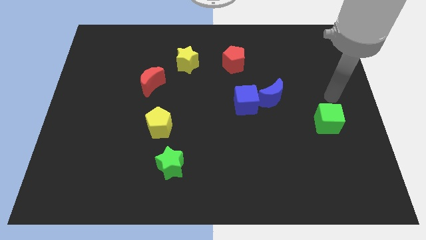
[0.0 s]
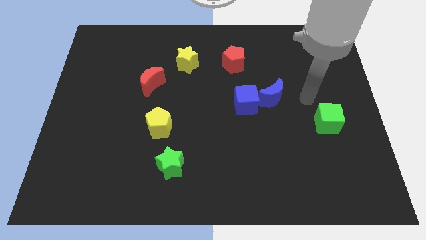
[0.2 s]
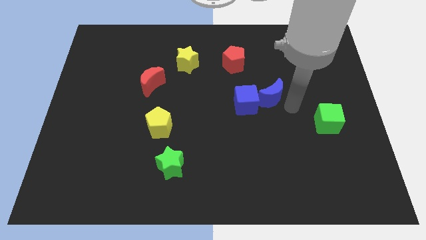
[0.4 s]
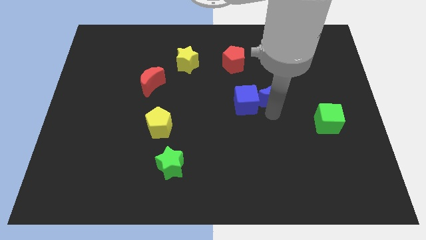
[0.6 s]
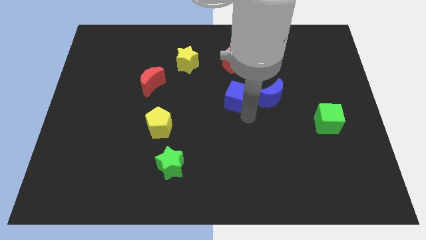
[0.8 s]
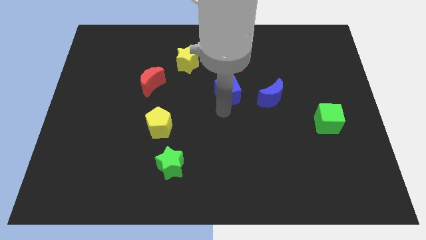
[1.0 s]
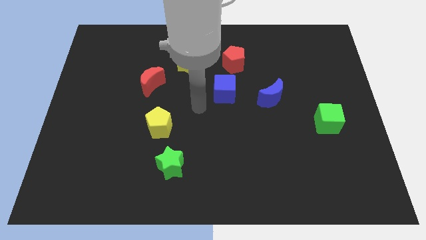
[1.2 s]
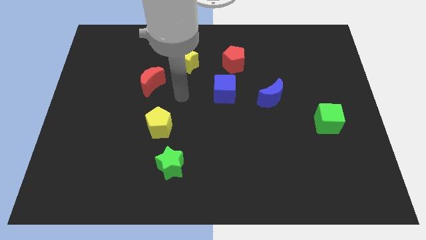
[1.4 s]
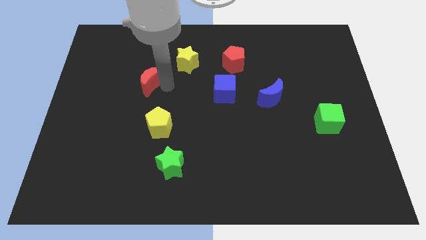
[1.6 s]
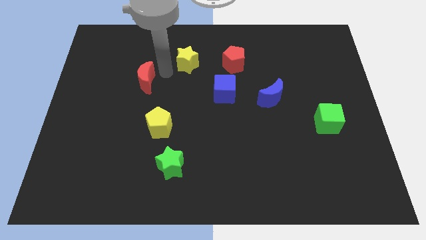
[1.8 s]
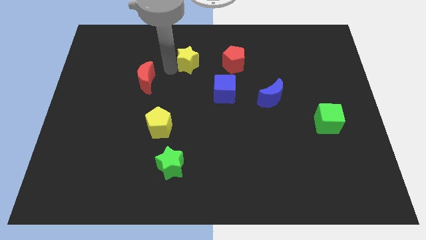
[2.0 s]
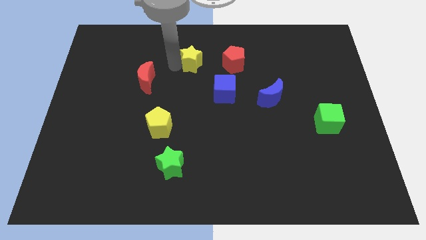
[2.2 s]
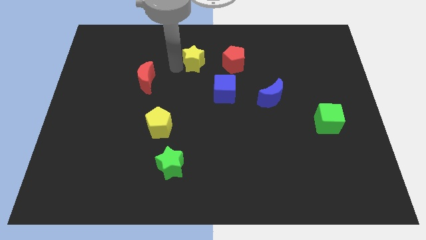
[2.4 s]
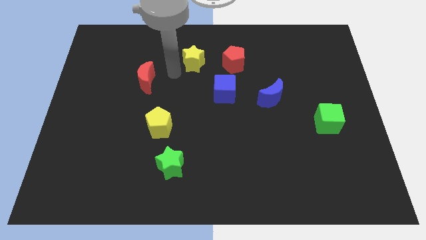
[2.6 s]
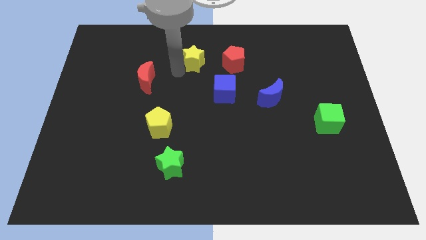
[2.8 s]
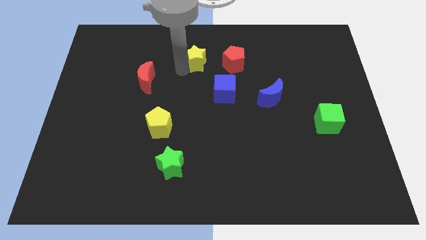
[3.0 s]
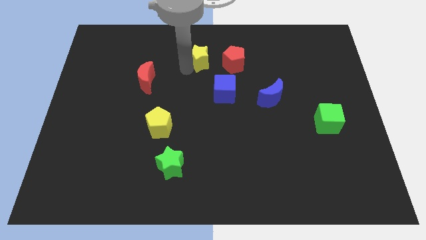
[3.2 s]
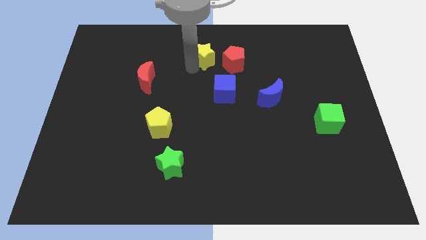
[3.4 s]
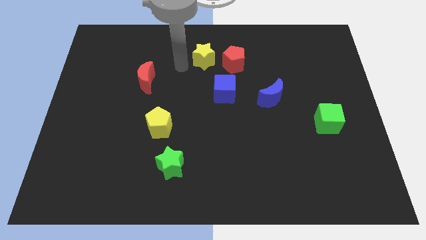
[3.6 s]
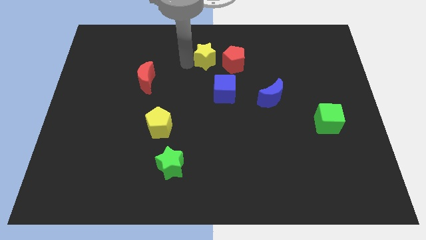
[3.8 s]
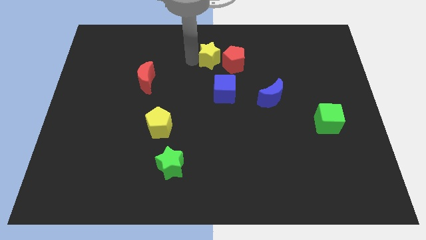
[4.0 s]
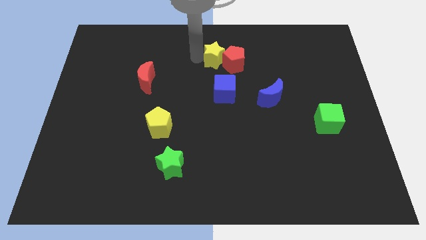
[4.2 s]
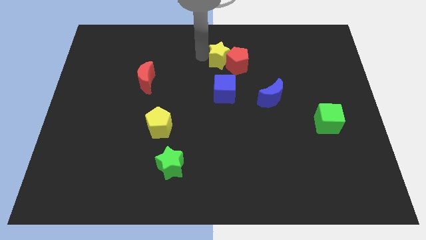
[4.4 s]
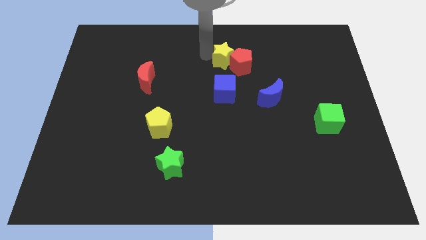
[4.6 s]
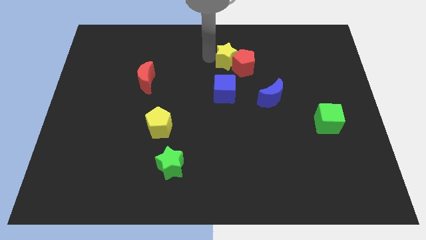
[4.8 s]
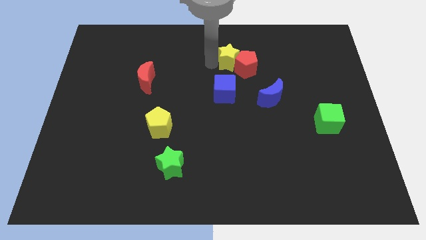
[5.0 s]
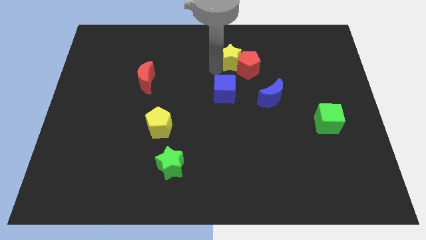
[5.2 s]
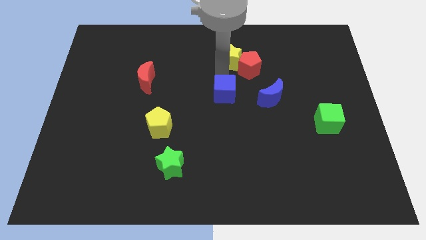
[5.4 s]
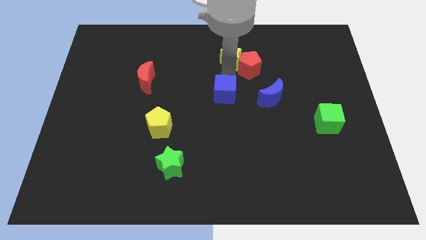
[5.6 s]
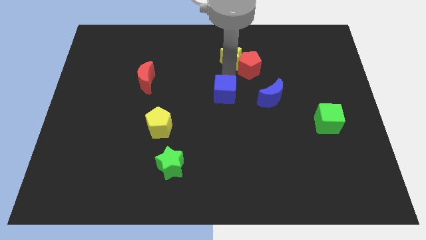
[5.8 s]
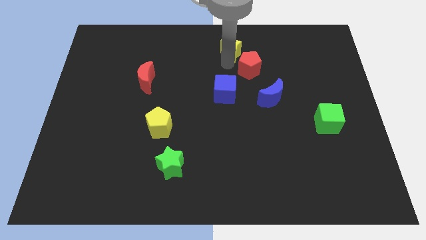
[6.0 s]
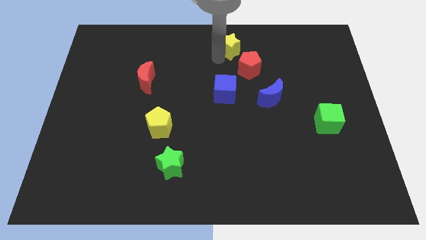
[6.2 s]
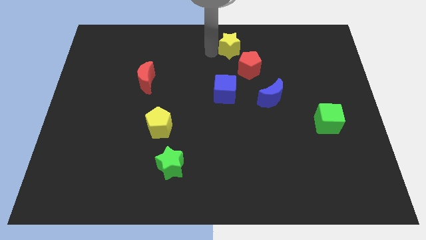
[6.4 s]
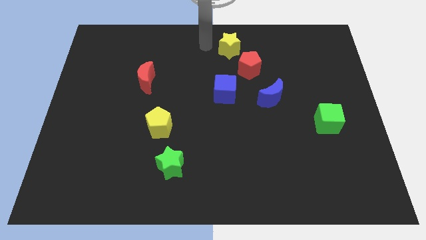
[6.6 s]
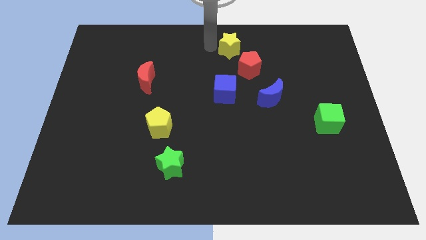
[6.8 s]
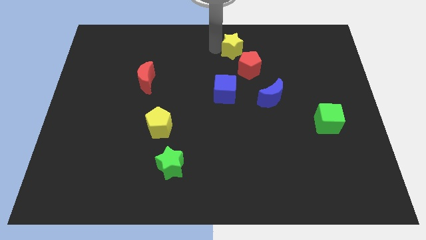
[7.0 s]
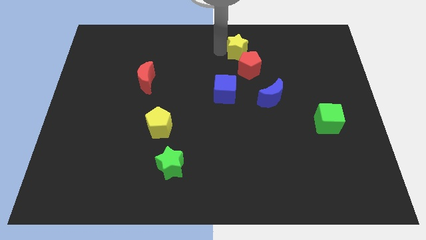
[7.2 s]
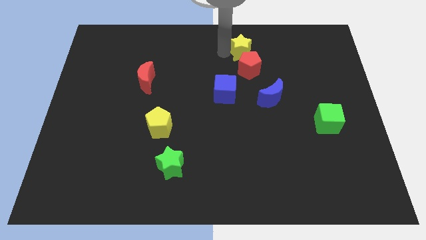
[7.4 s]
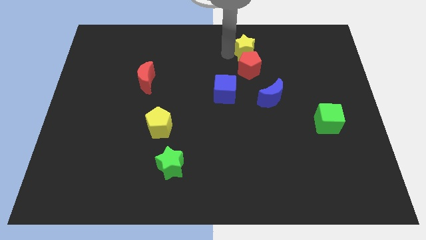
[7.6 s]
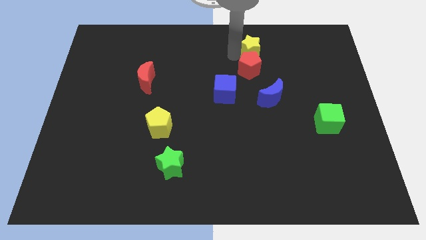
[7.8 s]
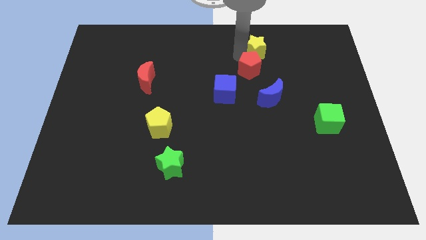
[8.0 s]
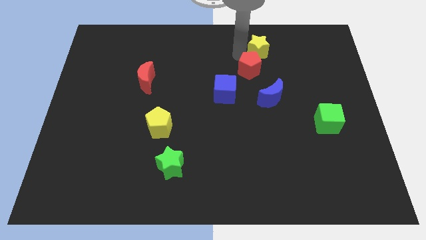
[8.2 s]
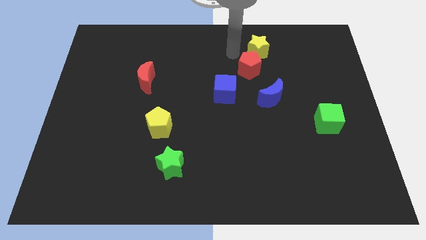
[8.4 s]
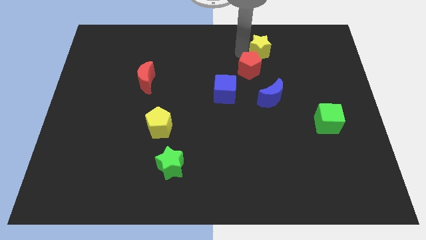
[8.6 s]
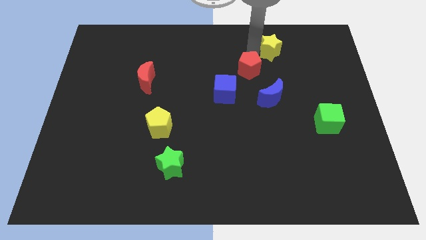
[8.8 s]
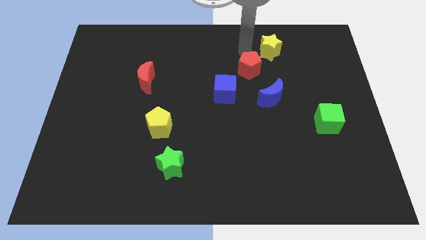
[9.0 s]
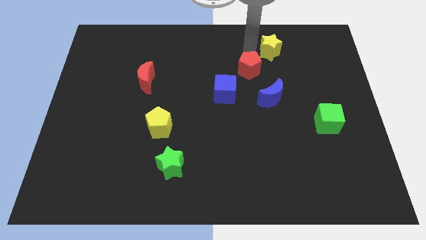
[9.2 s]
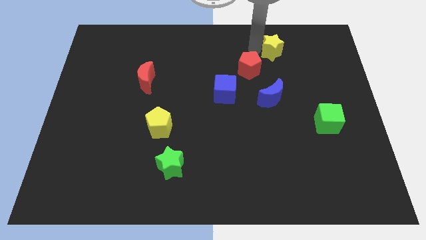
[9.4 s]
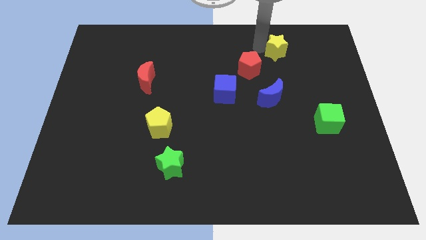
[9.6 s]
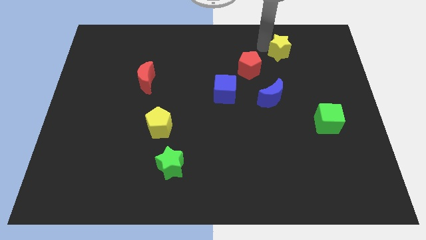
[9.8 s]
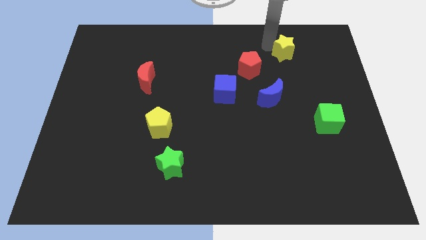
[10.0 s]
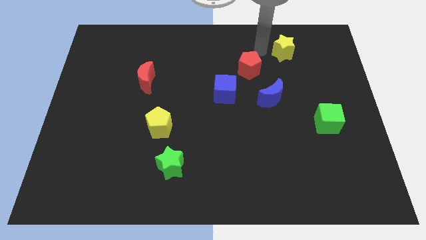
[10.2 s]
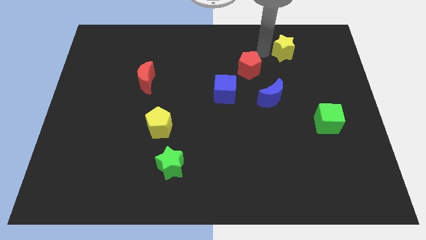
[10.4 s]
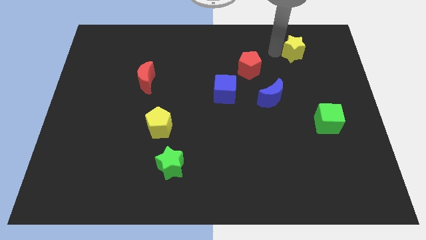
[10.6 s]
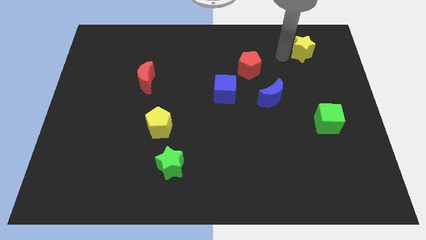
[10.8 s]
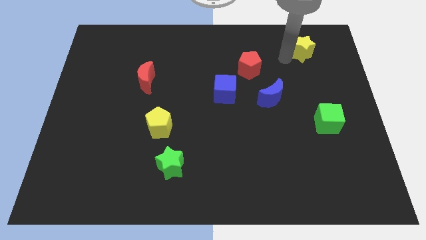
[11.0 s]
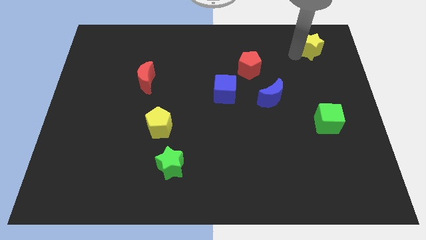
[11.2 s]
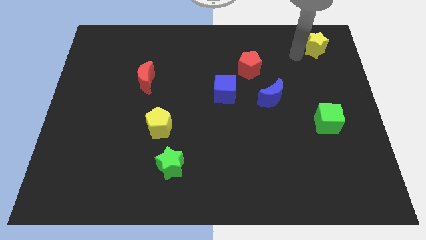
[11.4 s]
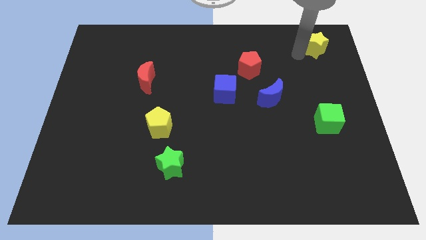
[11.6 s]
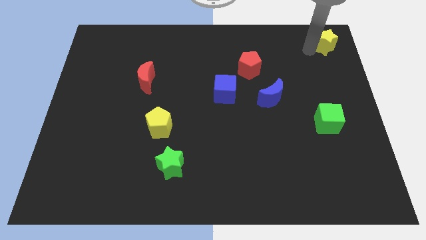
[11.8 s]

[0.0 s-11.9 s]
slide the yellow star to the top right

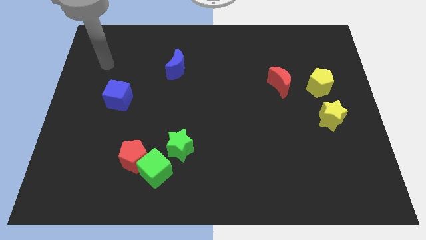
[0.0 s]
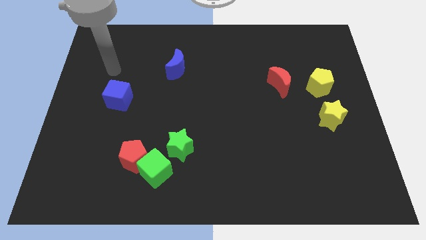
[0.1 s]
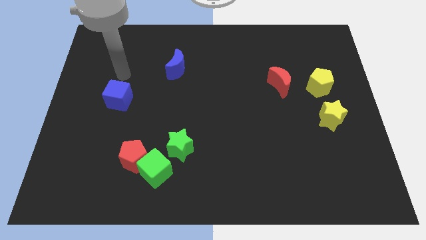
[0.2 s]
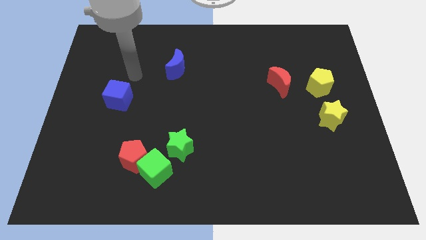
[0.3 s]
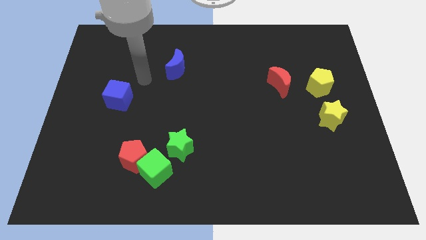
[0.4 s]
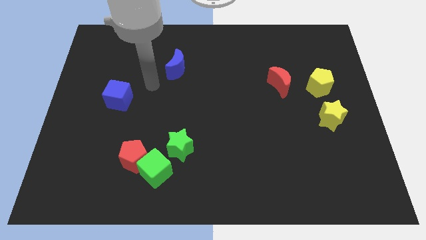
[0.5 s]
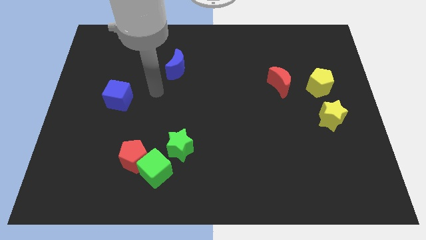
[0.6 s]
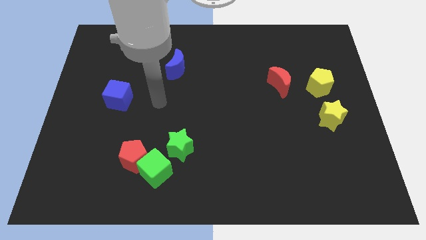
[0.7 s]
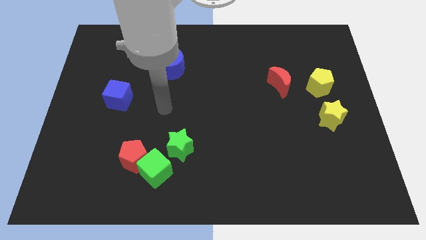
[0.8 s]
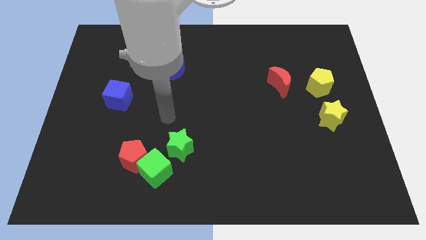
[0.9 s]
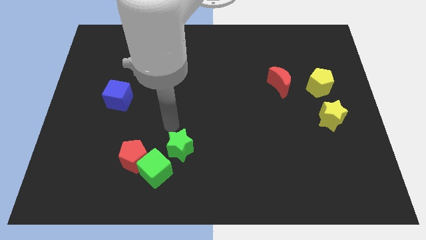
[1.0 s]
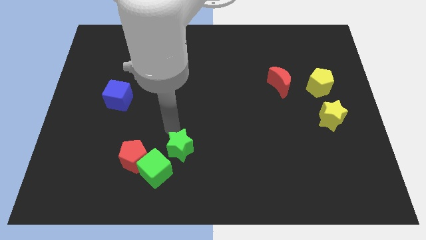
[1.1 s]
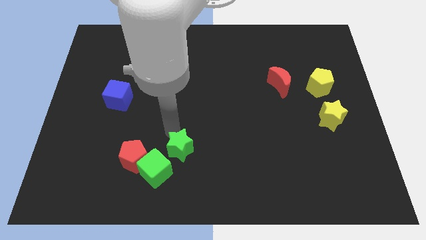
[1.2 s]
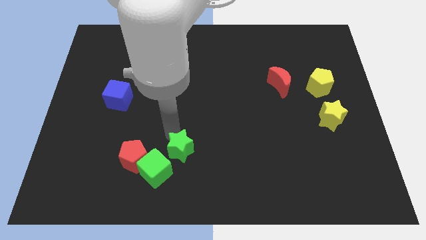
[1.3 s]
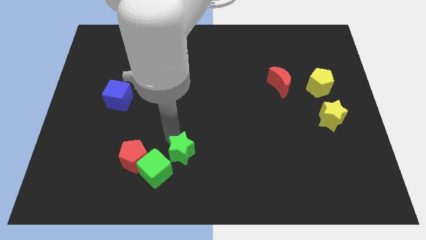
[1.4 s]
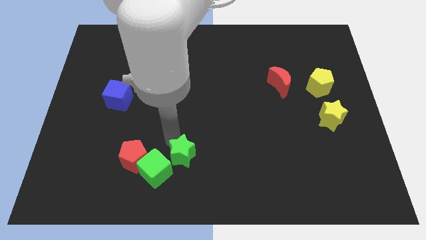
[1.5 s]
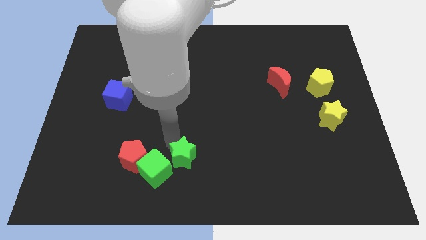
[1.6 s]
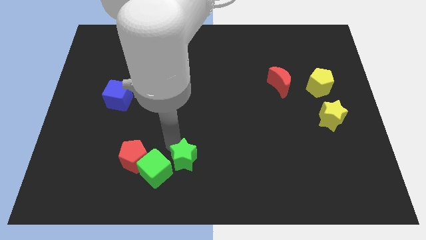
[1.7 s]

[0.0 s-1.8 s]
slide the green star to the bottom
